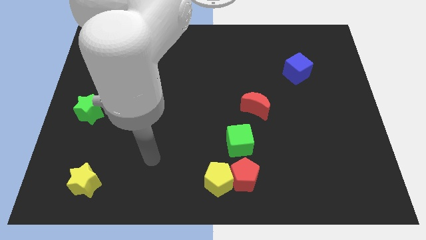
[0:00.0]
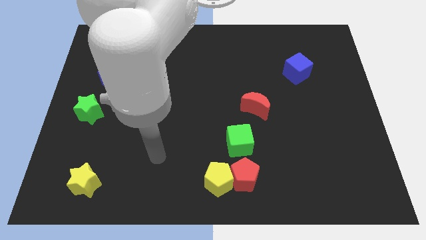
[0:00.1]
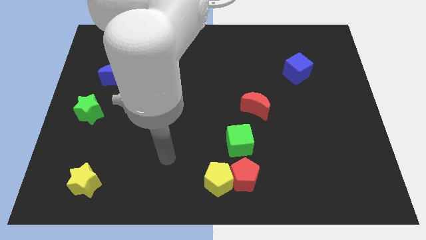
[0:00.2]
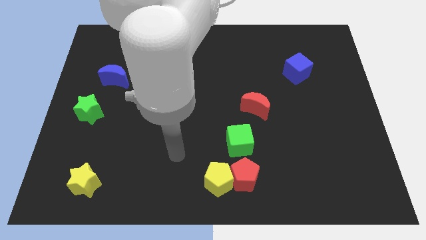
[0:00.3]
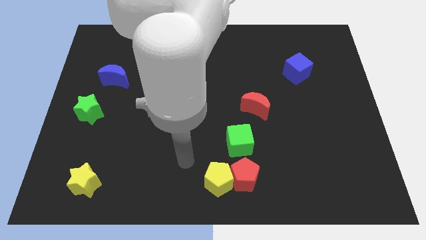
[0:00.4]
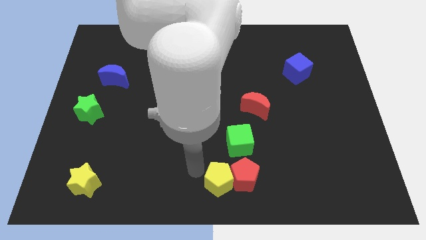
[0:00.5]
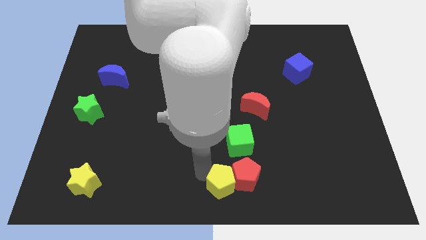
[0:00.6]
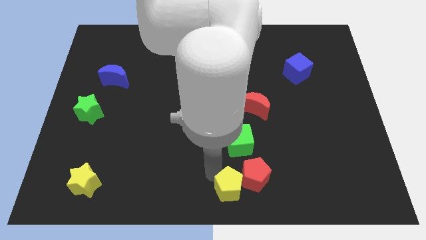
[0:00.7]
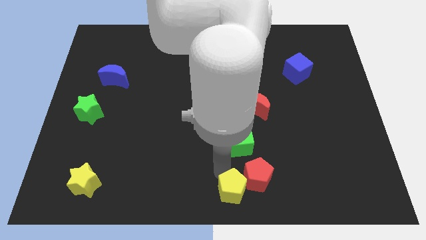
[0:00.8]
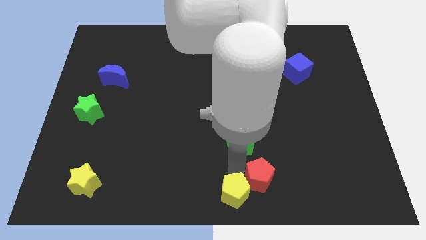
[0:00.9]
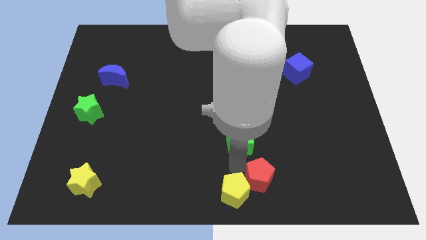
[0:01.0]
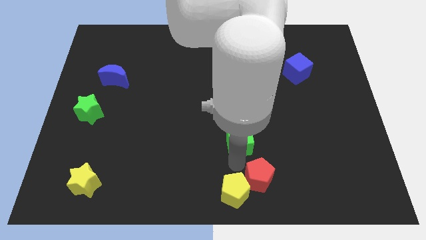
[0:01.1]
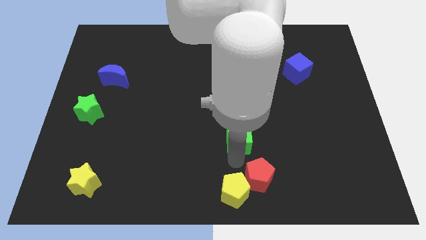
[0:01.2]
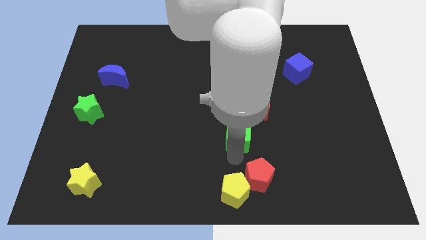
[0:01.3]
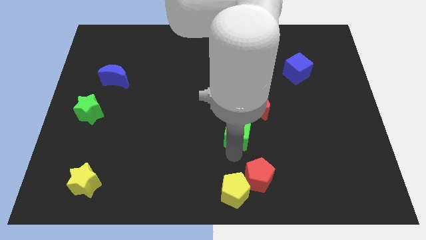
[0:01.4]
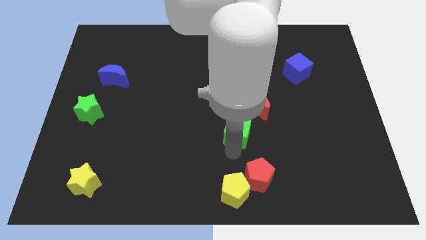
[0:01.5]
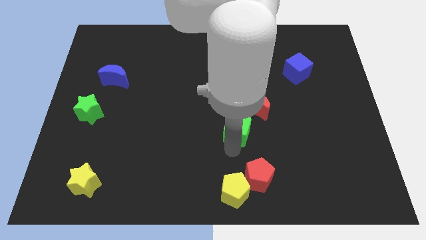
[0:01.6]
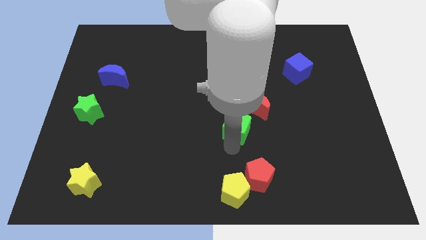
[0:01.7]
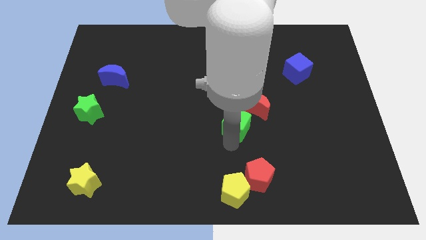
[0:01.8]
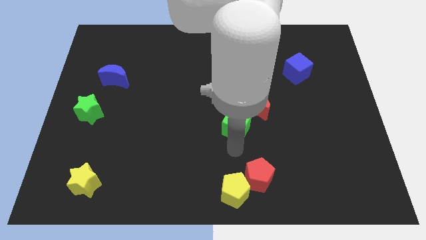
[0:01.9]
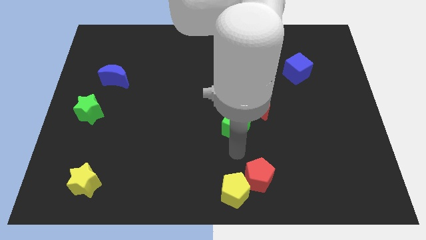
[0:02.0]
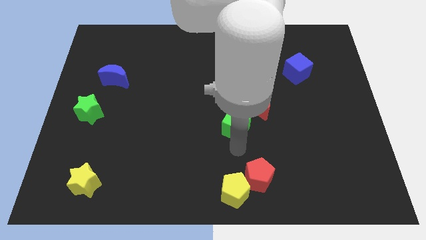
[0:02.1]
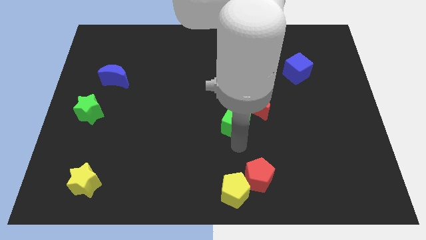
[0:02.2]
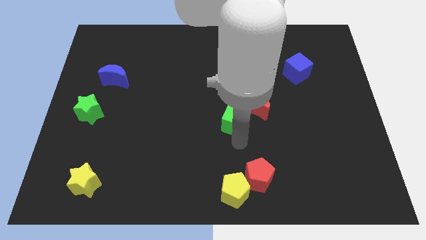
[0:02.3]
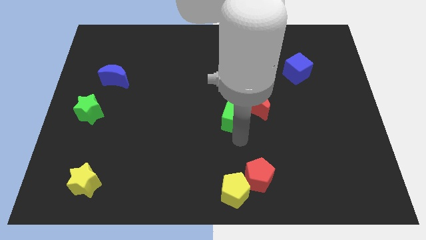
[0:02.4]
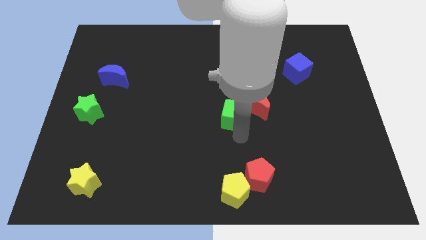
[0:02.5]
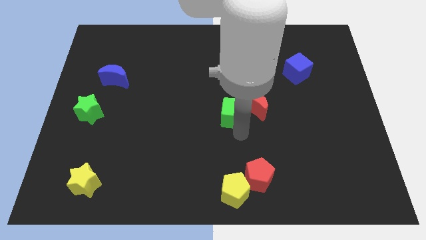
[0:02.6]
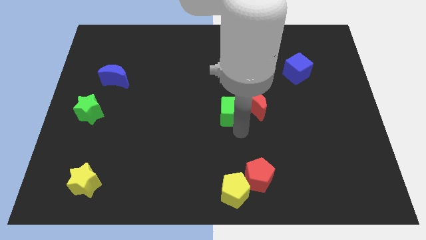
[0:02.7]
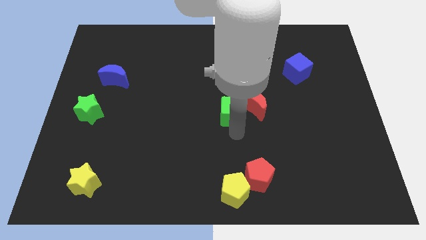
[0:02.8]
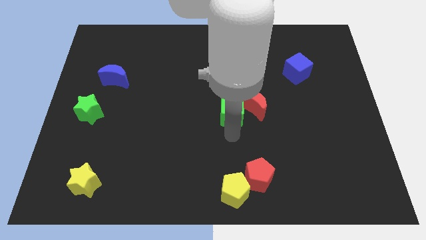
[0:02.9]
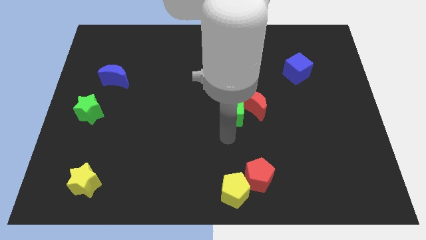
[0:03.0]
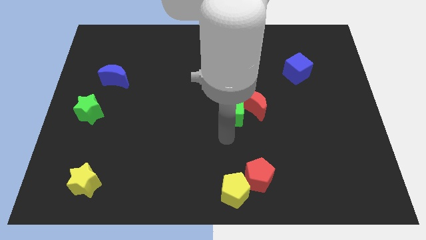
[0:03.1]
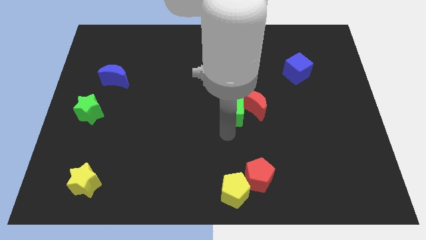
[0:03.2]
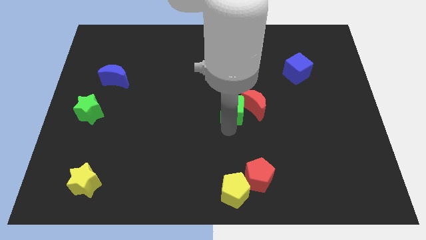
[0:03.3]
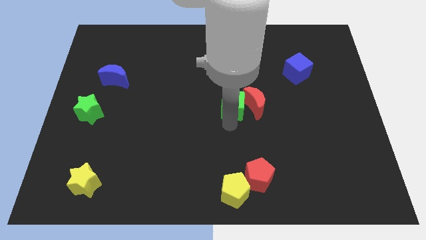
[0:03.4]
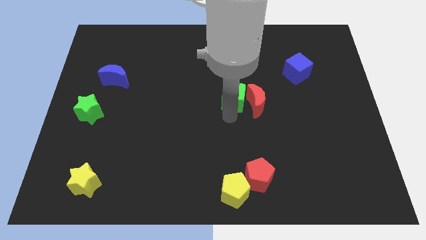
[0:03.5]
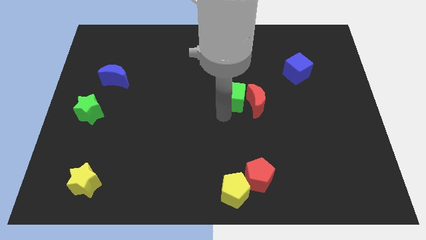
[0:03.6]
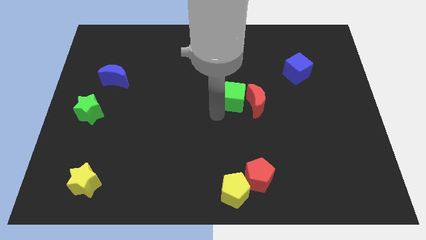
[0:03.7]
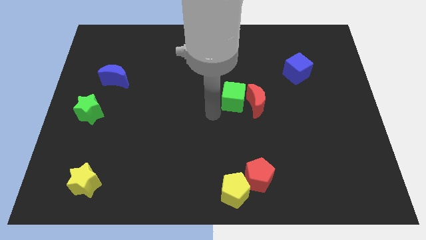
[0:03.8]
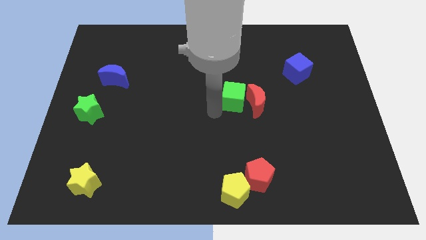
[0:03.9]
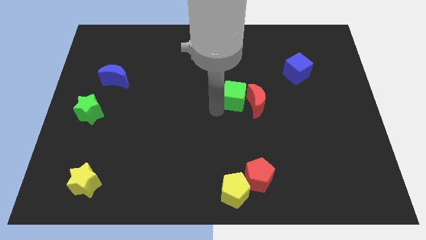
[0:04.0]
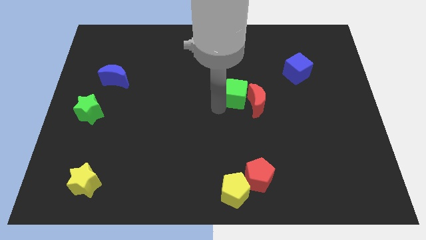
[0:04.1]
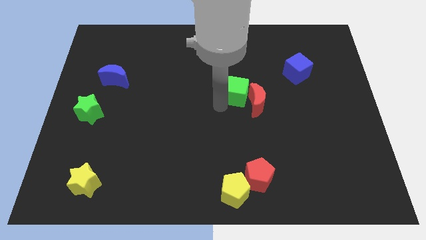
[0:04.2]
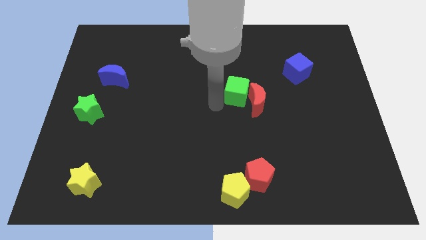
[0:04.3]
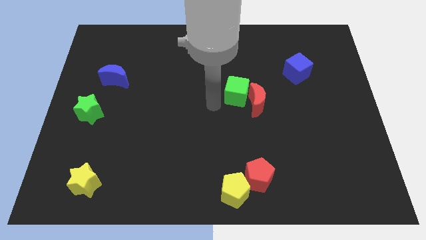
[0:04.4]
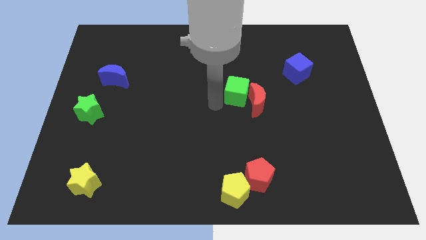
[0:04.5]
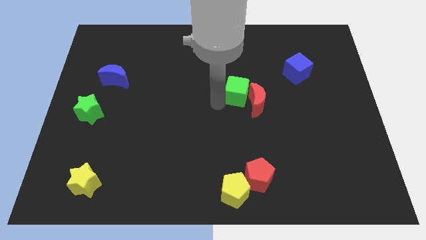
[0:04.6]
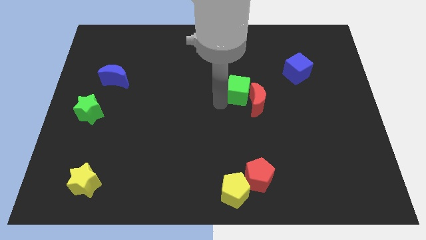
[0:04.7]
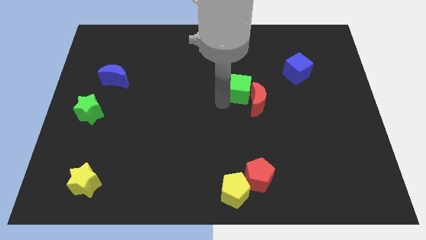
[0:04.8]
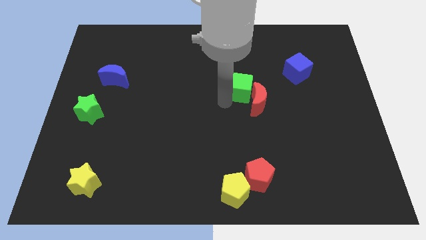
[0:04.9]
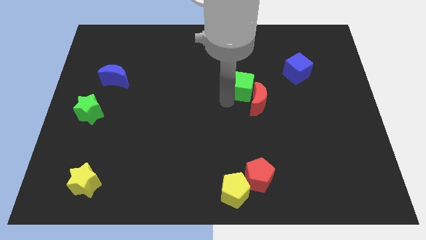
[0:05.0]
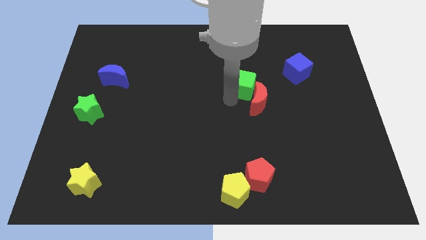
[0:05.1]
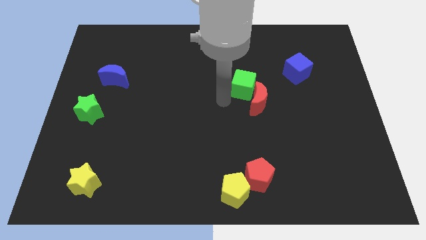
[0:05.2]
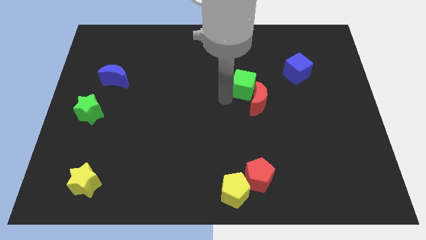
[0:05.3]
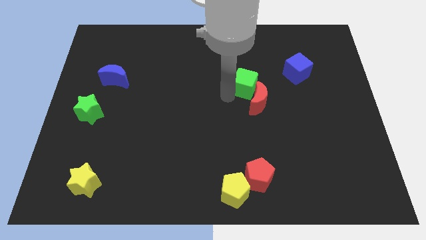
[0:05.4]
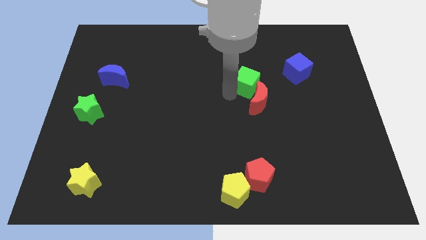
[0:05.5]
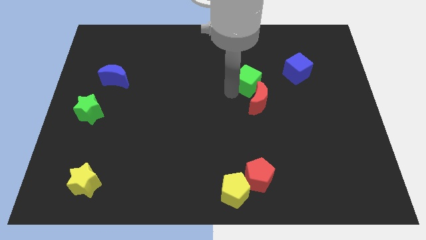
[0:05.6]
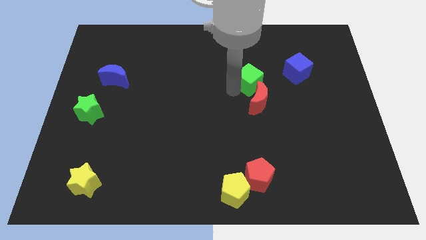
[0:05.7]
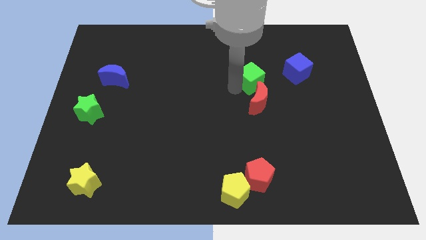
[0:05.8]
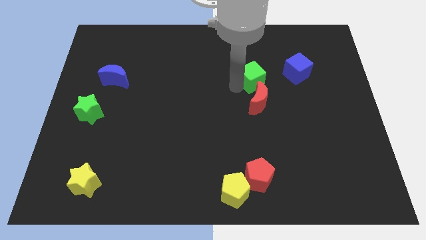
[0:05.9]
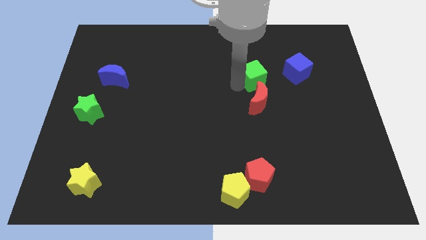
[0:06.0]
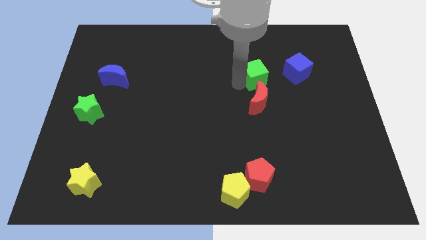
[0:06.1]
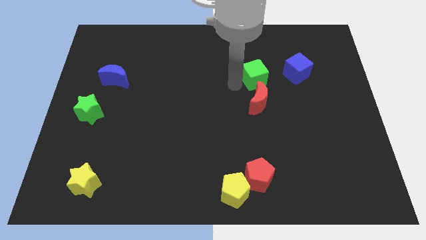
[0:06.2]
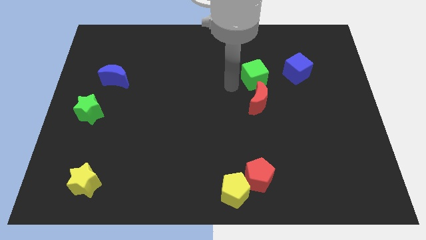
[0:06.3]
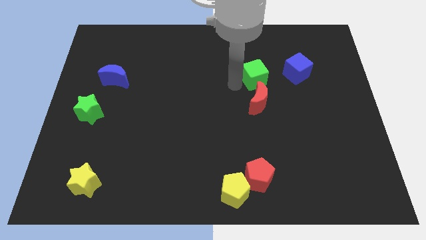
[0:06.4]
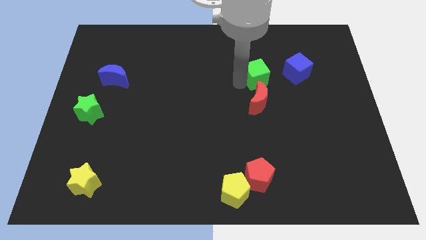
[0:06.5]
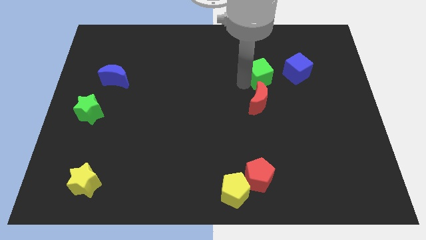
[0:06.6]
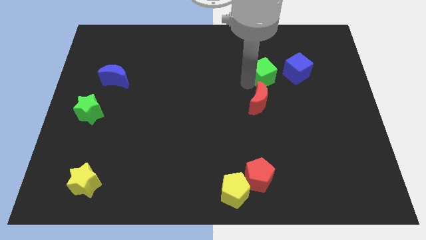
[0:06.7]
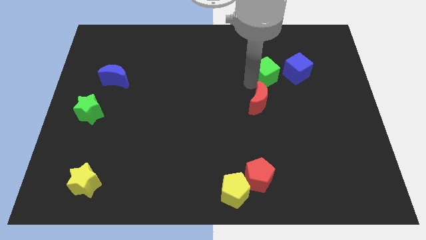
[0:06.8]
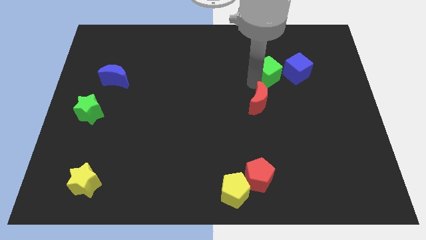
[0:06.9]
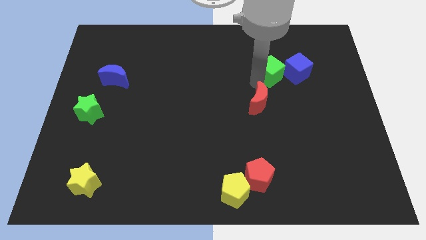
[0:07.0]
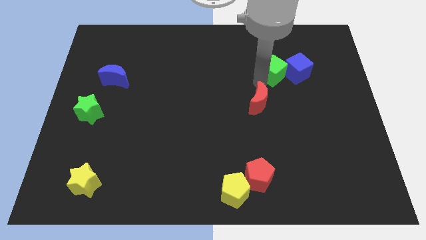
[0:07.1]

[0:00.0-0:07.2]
put the green cube to the top left of the blue cube

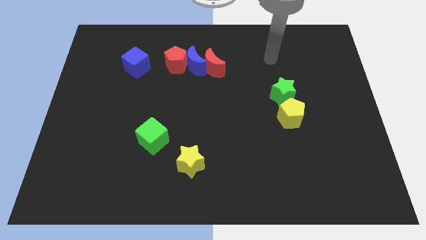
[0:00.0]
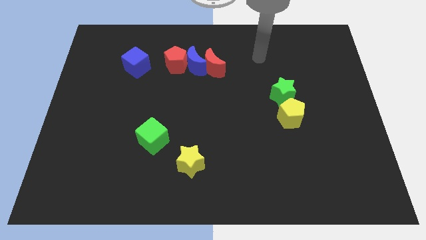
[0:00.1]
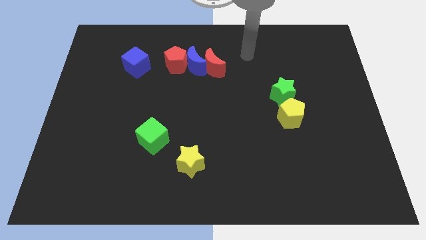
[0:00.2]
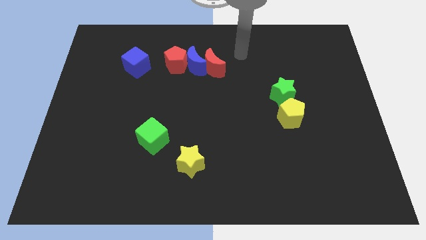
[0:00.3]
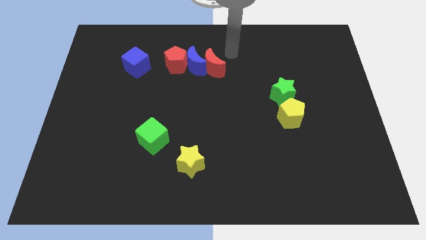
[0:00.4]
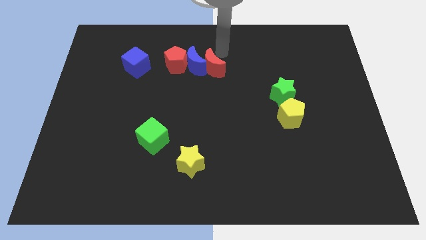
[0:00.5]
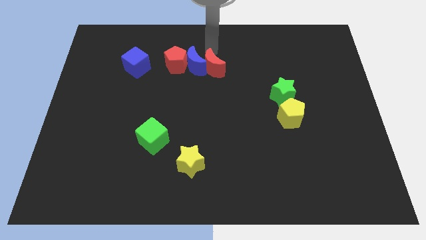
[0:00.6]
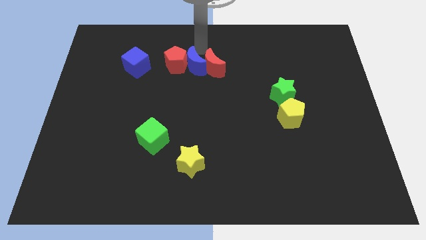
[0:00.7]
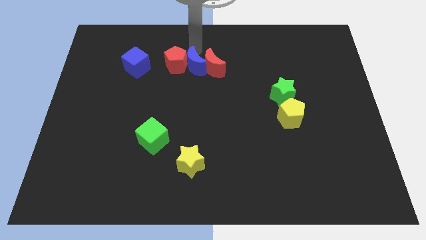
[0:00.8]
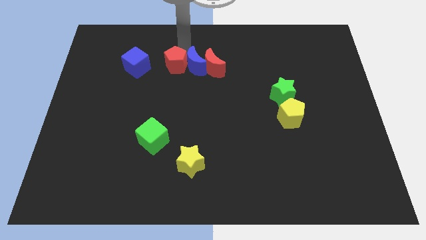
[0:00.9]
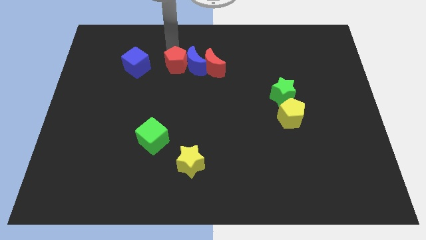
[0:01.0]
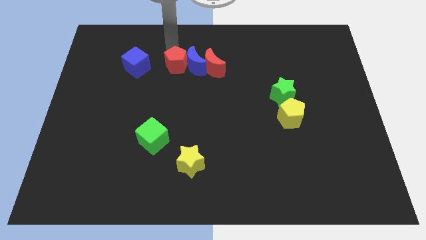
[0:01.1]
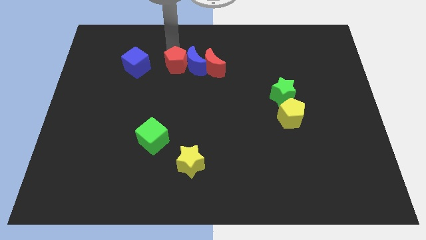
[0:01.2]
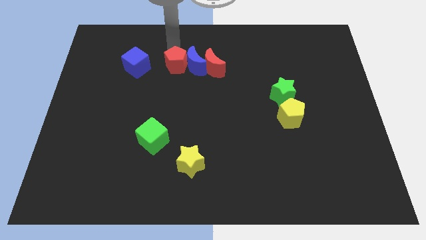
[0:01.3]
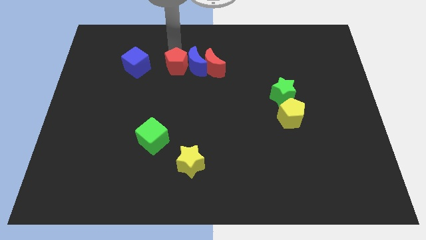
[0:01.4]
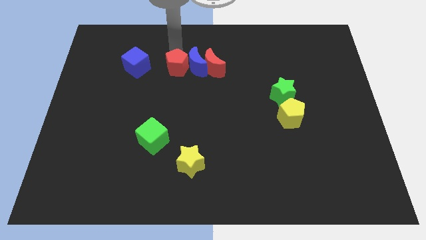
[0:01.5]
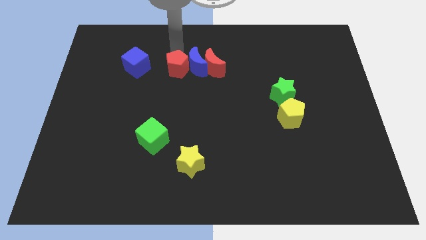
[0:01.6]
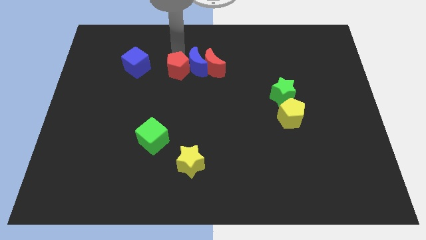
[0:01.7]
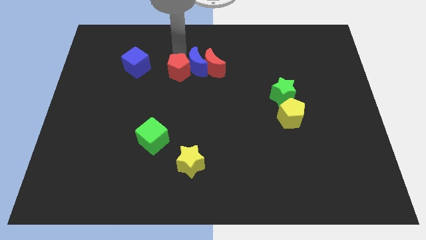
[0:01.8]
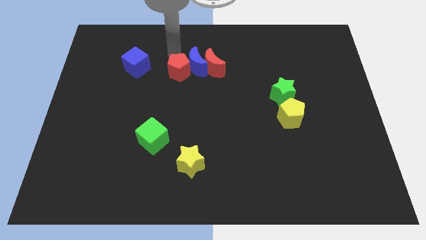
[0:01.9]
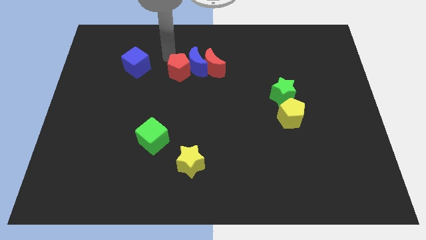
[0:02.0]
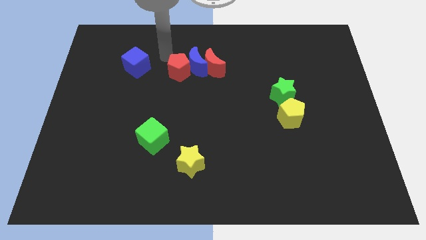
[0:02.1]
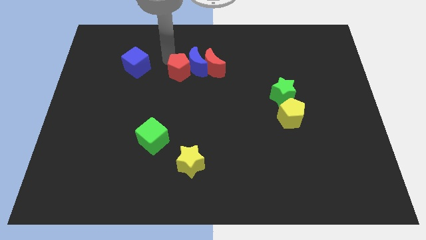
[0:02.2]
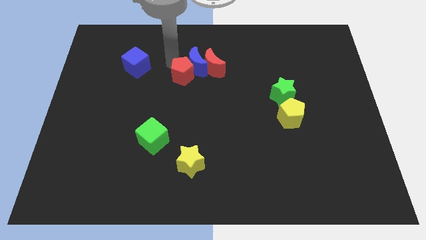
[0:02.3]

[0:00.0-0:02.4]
put the red pentagon to the bottom left side of the red moon
